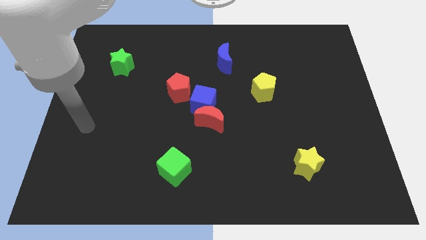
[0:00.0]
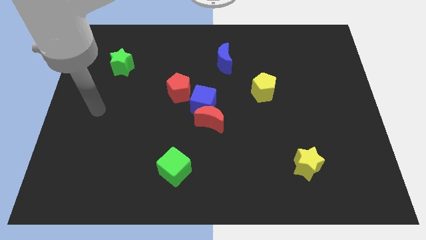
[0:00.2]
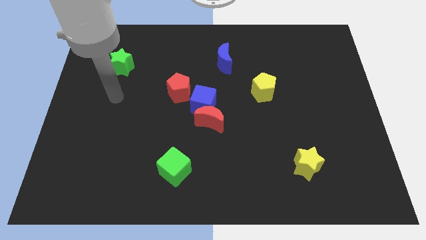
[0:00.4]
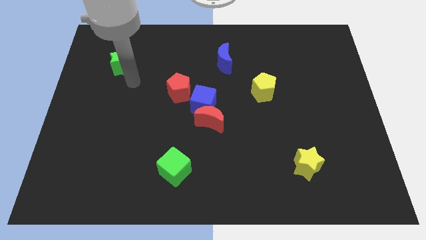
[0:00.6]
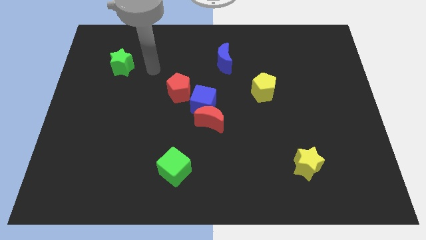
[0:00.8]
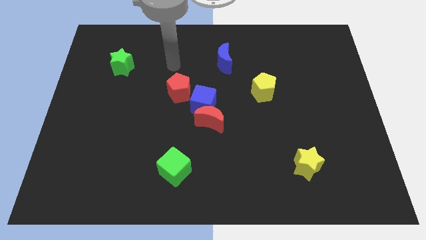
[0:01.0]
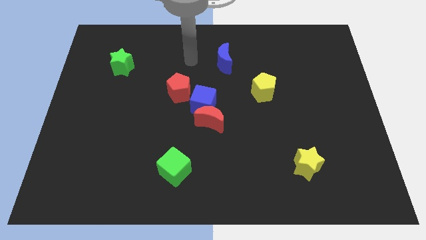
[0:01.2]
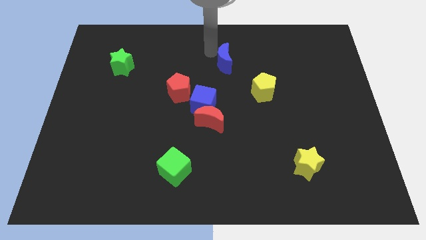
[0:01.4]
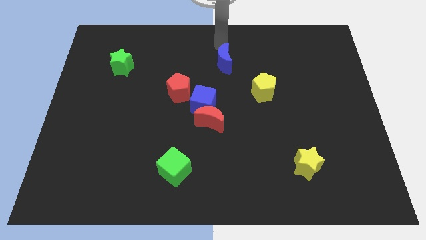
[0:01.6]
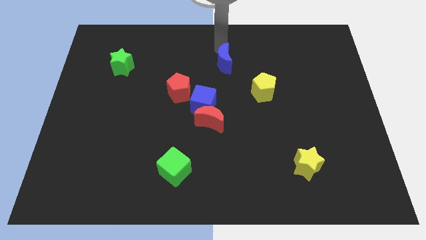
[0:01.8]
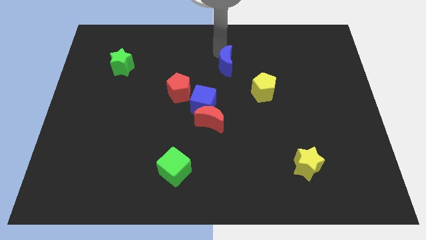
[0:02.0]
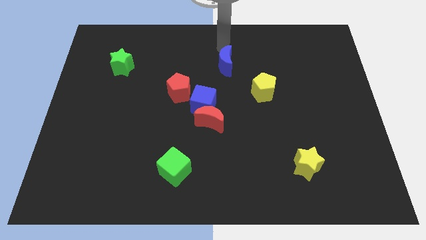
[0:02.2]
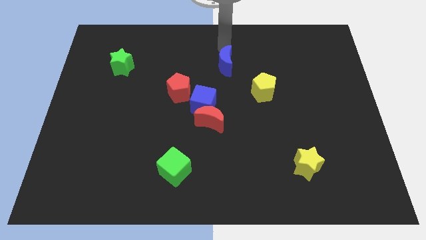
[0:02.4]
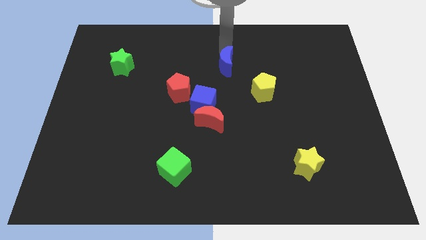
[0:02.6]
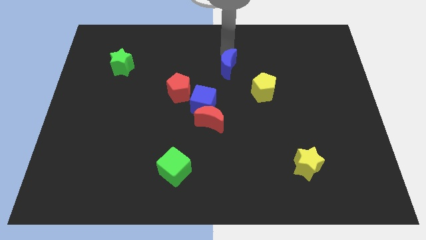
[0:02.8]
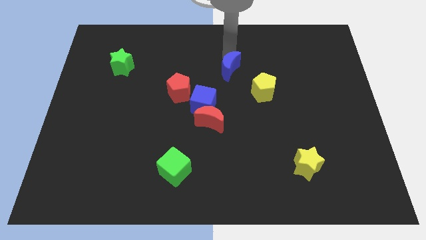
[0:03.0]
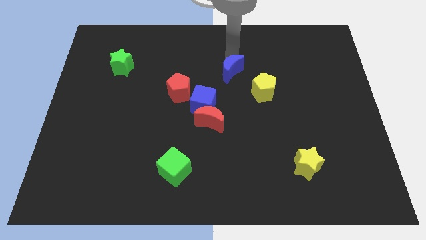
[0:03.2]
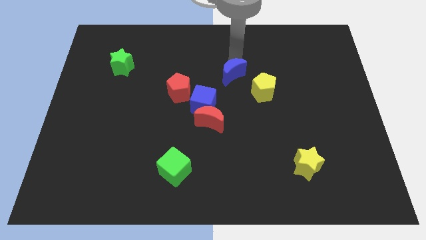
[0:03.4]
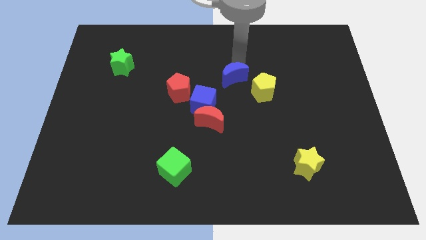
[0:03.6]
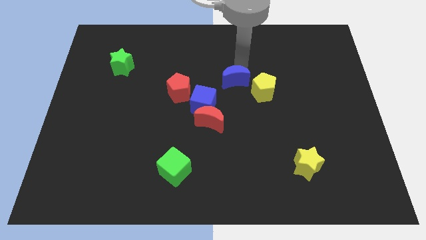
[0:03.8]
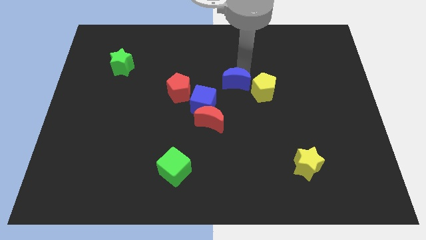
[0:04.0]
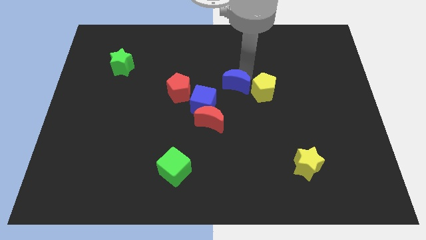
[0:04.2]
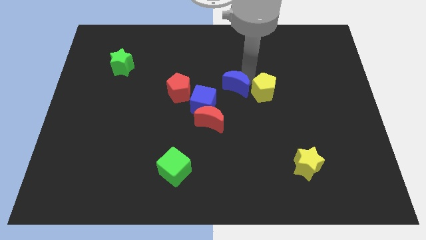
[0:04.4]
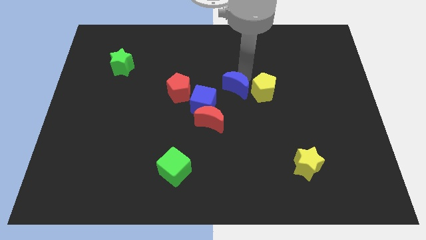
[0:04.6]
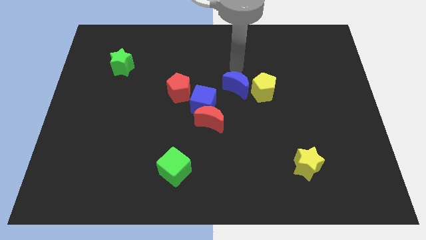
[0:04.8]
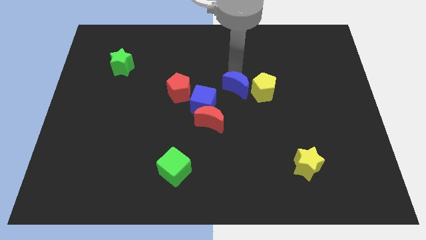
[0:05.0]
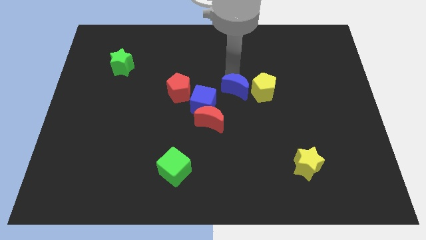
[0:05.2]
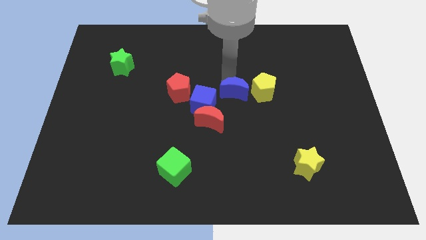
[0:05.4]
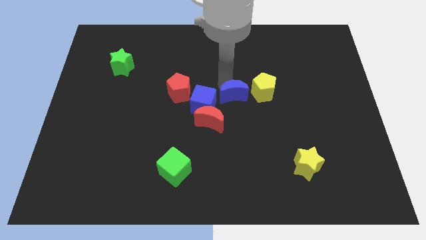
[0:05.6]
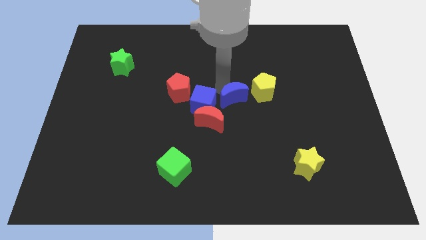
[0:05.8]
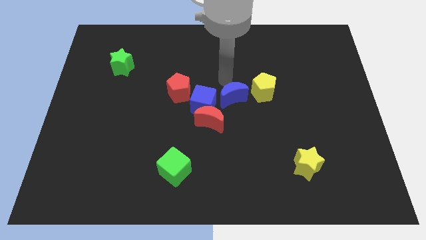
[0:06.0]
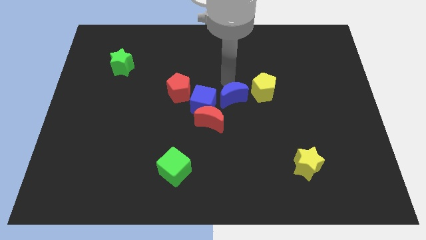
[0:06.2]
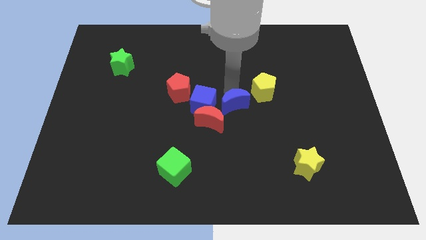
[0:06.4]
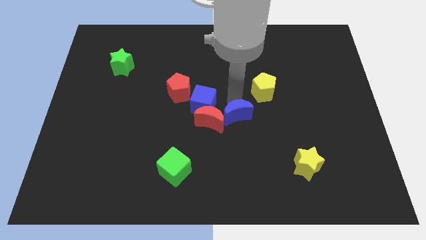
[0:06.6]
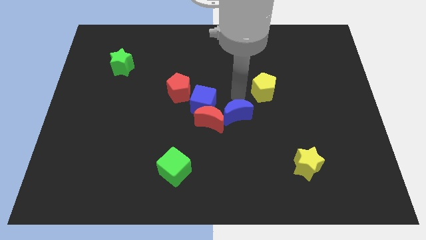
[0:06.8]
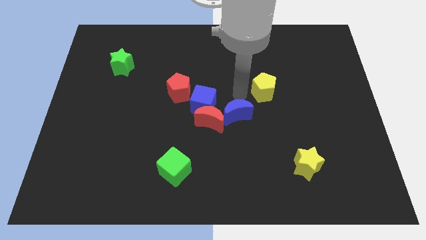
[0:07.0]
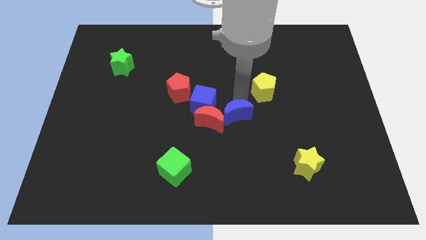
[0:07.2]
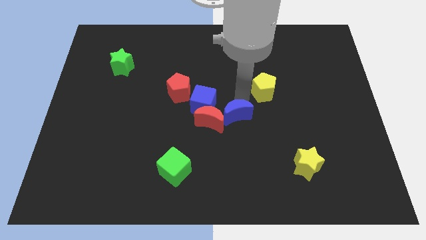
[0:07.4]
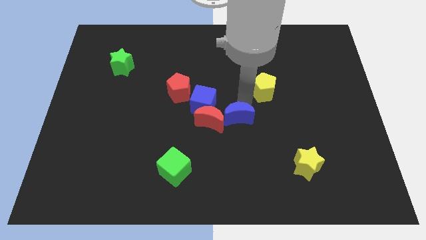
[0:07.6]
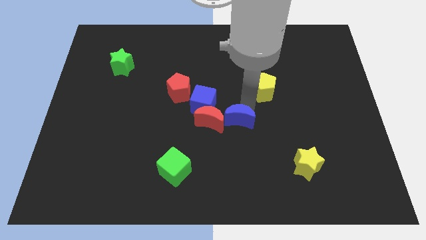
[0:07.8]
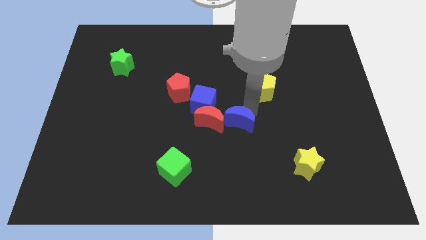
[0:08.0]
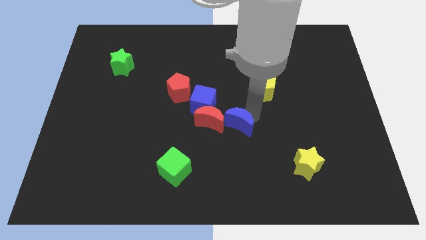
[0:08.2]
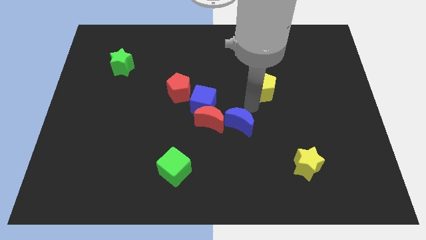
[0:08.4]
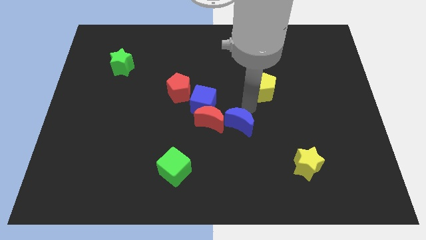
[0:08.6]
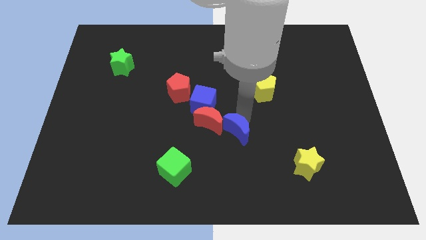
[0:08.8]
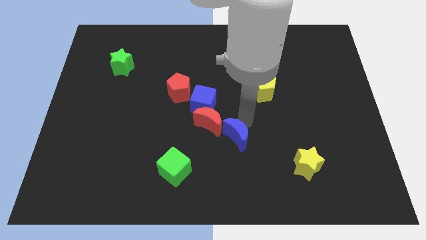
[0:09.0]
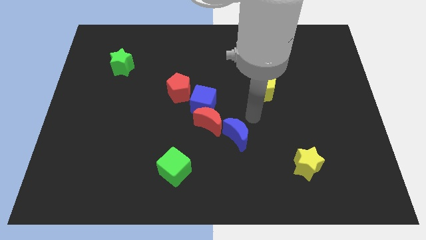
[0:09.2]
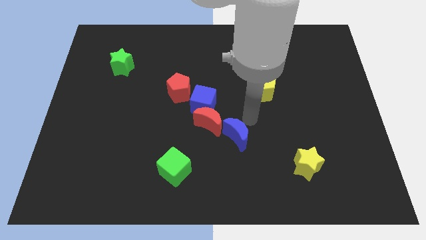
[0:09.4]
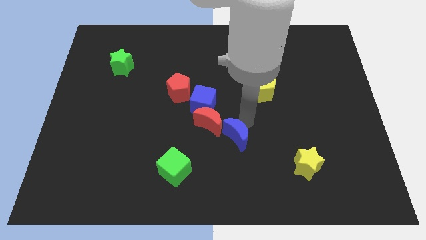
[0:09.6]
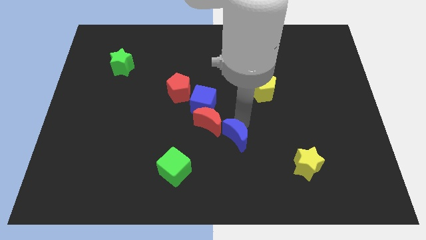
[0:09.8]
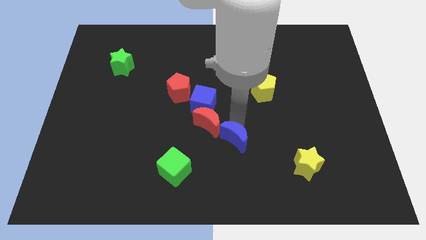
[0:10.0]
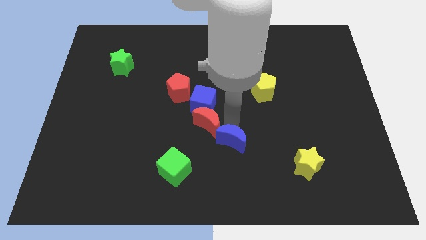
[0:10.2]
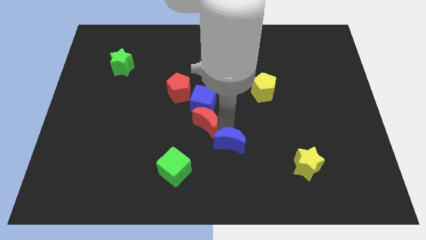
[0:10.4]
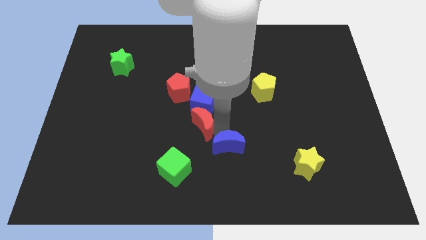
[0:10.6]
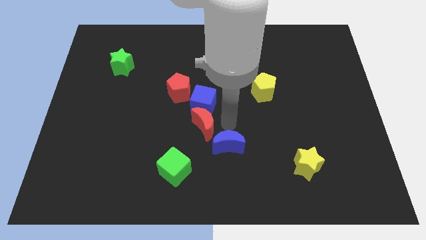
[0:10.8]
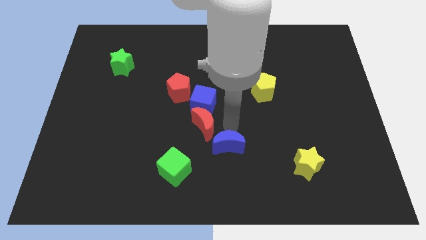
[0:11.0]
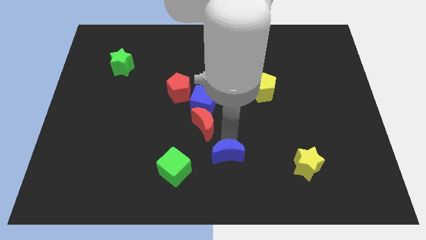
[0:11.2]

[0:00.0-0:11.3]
push the blue moon to the right of the green cube

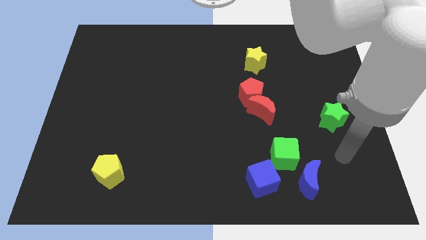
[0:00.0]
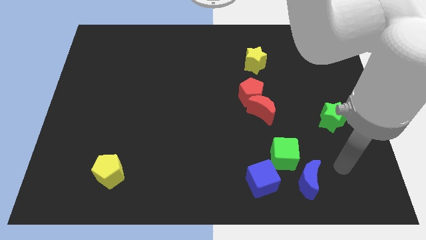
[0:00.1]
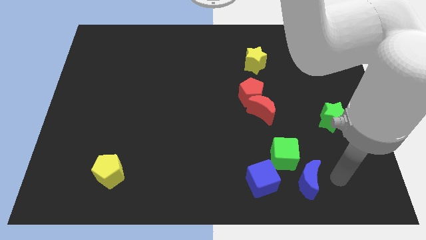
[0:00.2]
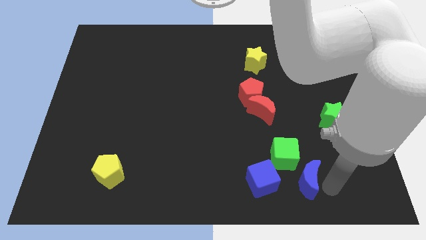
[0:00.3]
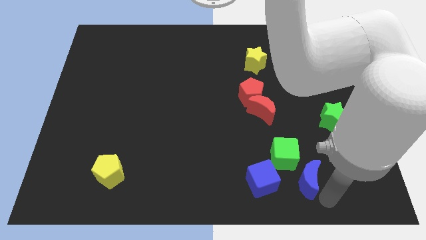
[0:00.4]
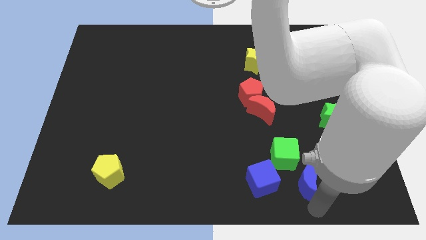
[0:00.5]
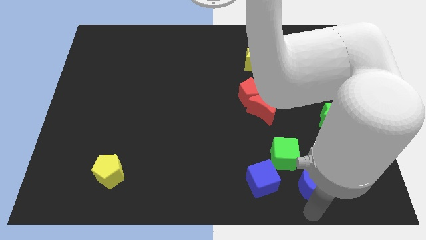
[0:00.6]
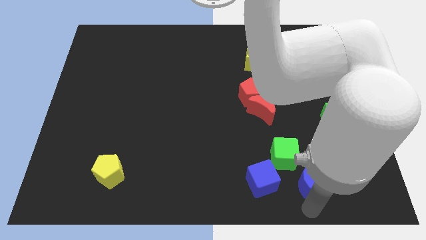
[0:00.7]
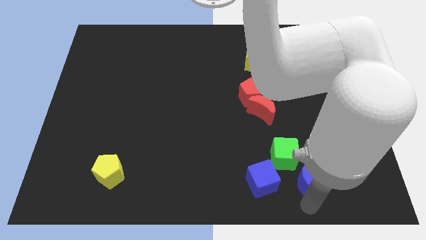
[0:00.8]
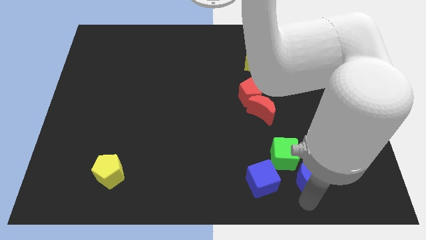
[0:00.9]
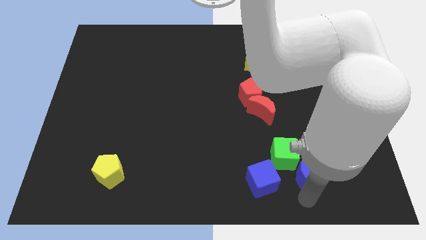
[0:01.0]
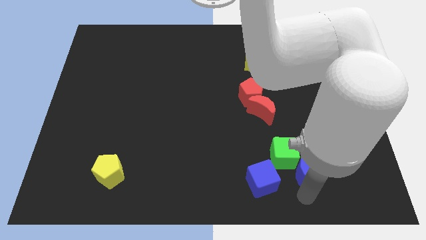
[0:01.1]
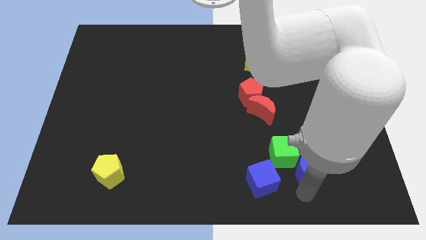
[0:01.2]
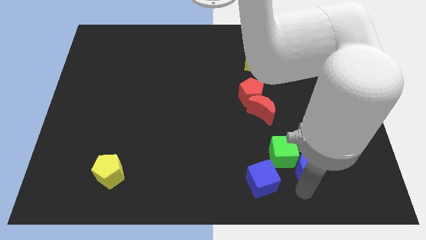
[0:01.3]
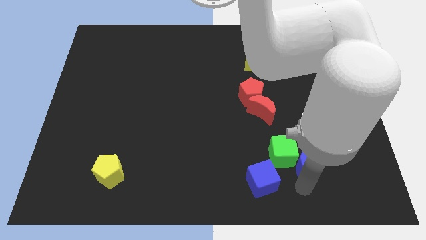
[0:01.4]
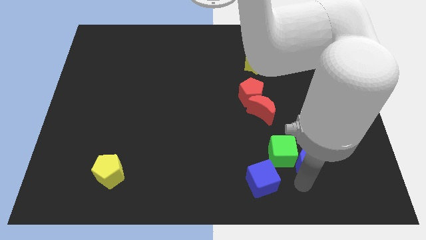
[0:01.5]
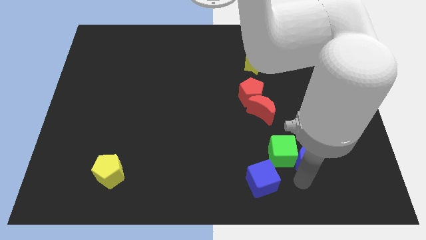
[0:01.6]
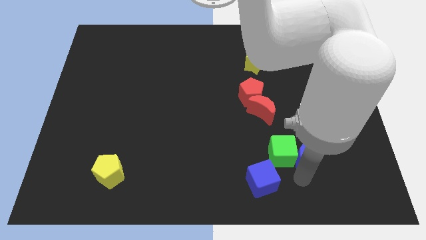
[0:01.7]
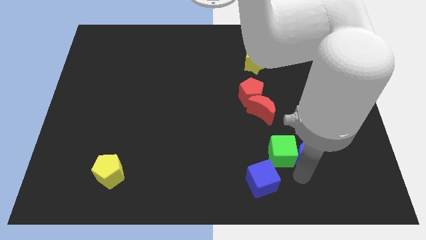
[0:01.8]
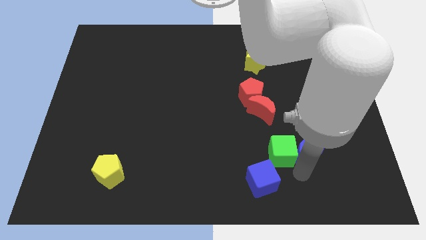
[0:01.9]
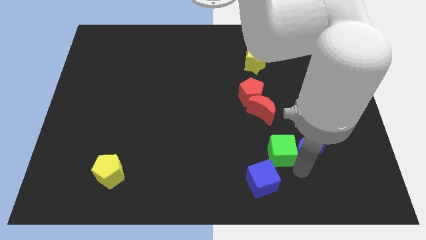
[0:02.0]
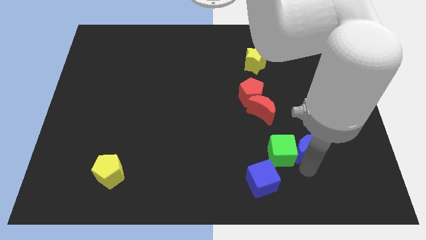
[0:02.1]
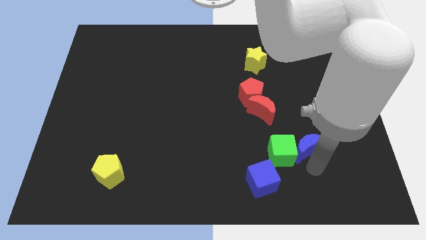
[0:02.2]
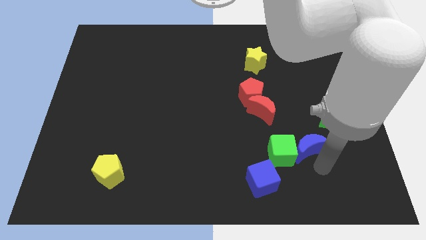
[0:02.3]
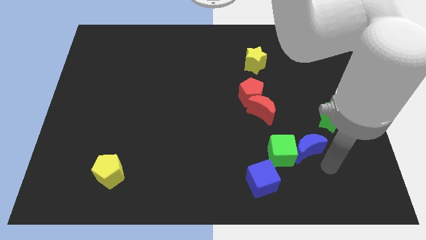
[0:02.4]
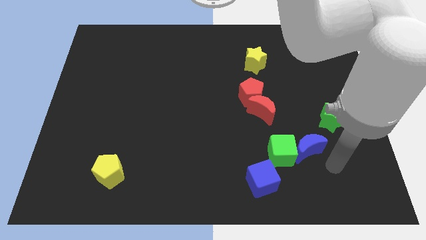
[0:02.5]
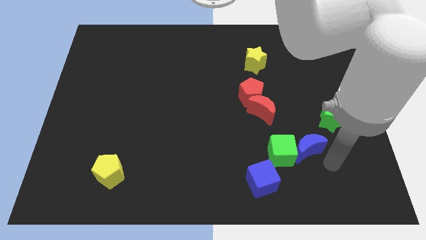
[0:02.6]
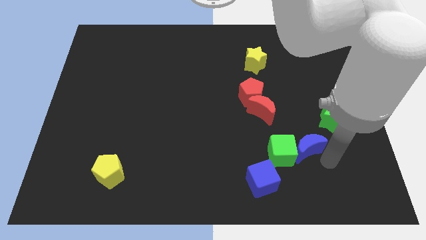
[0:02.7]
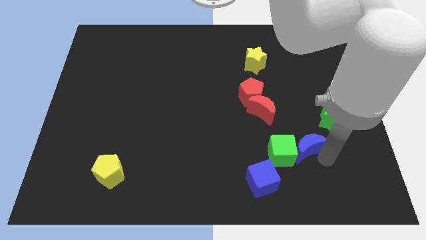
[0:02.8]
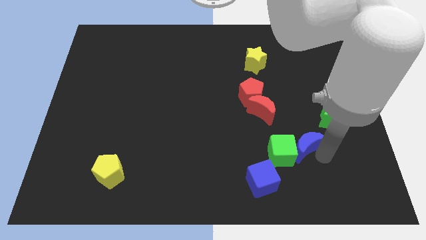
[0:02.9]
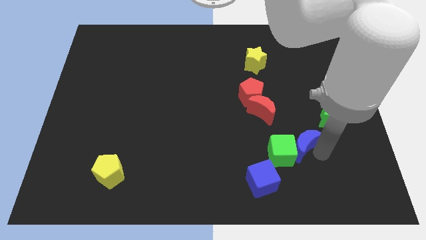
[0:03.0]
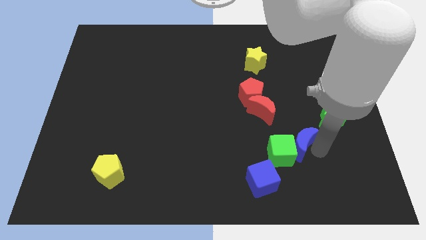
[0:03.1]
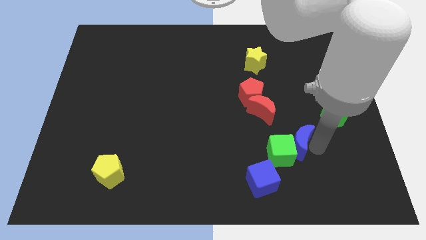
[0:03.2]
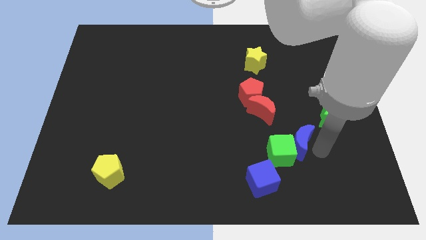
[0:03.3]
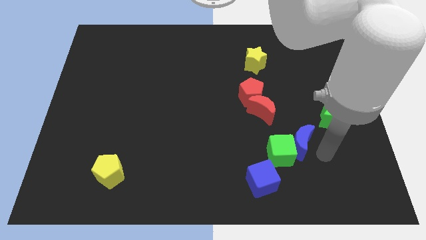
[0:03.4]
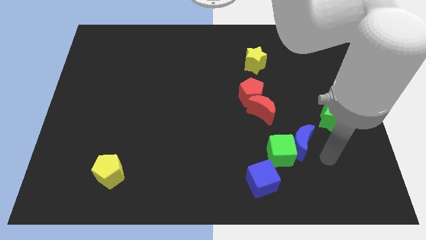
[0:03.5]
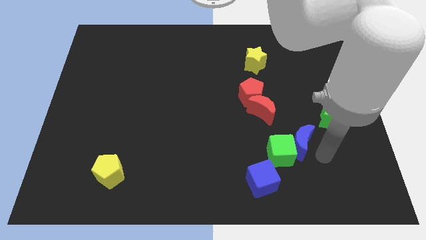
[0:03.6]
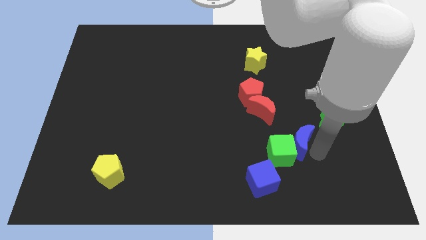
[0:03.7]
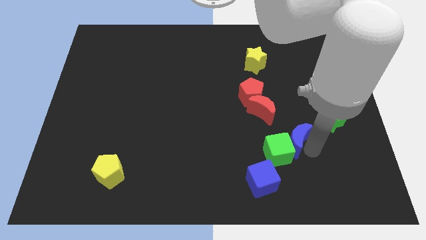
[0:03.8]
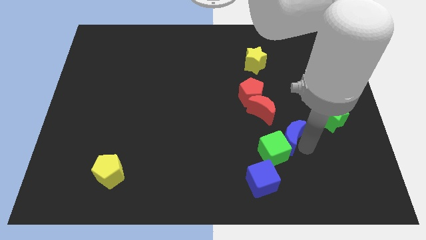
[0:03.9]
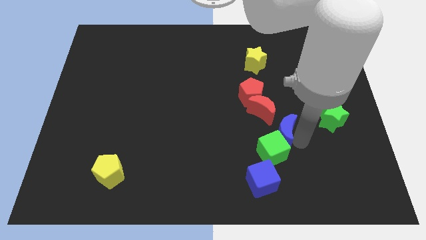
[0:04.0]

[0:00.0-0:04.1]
move the blue moon below the red moon
